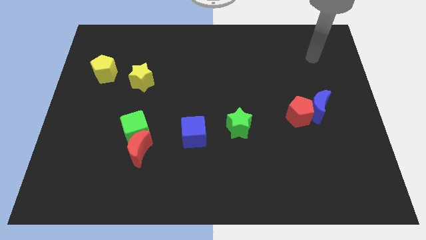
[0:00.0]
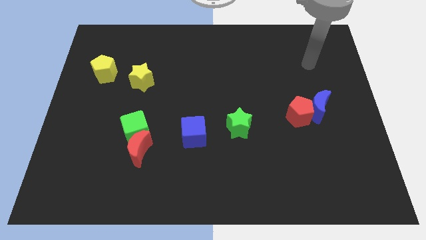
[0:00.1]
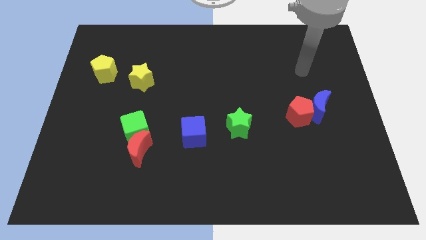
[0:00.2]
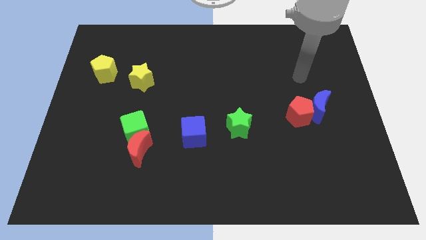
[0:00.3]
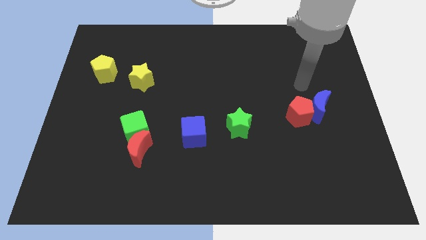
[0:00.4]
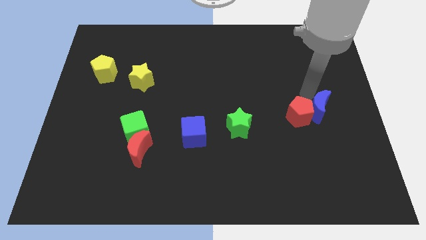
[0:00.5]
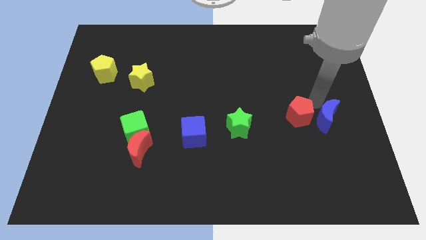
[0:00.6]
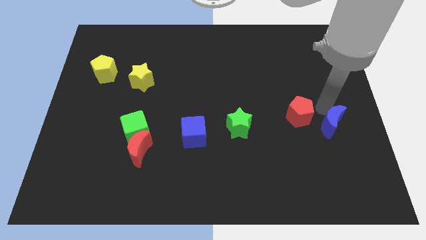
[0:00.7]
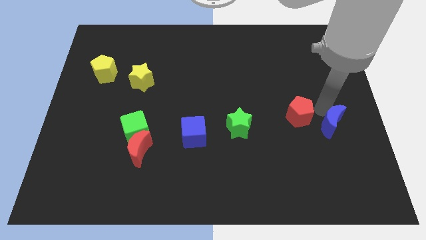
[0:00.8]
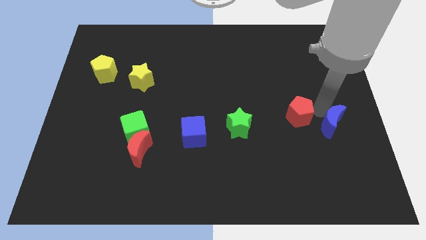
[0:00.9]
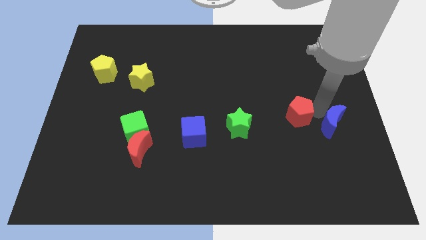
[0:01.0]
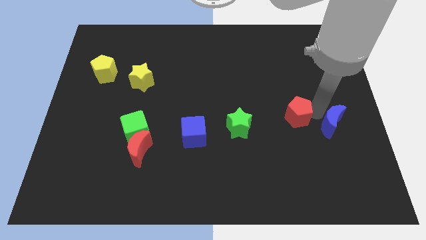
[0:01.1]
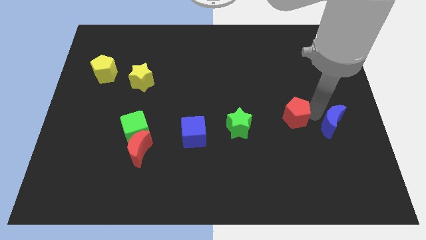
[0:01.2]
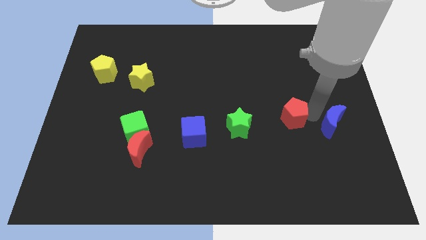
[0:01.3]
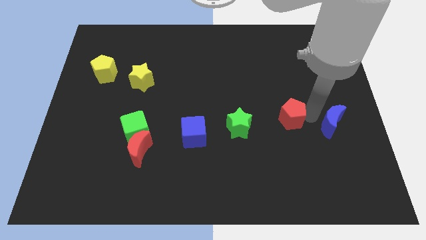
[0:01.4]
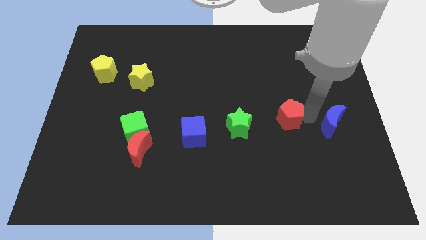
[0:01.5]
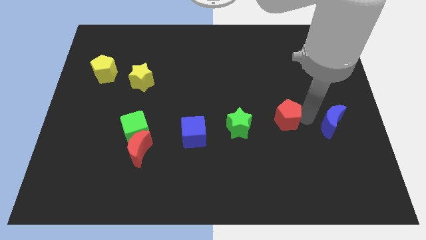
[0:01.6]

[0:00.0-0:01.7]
pull the red pentagon apart from the blue moon

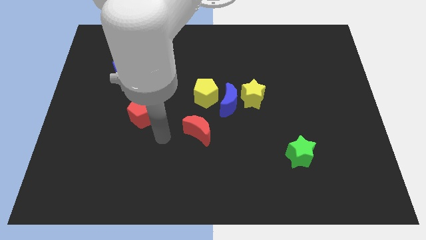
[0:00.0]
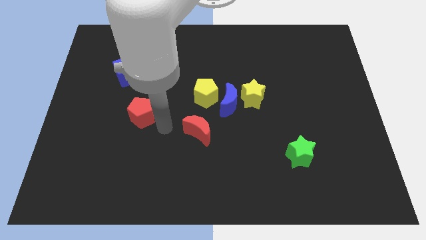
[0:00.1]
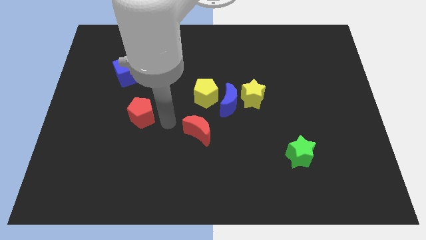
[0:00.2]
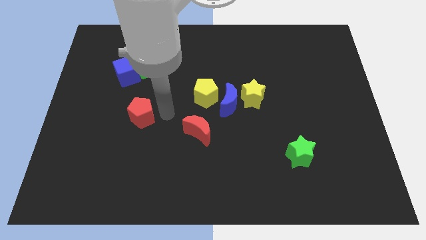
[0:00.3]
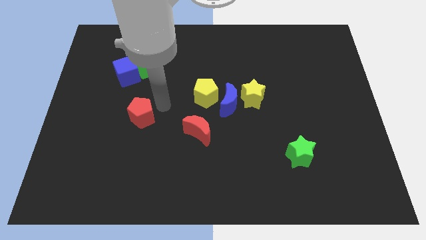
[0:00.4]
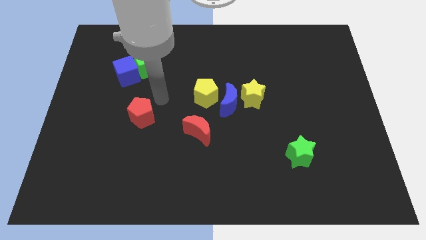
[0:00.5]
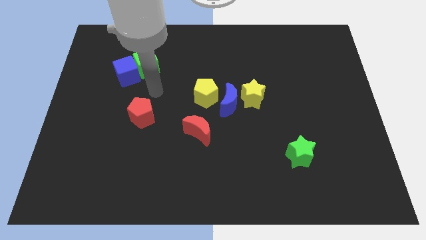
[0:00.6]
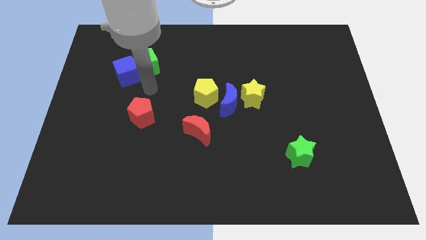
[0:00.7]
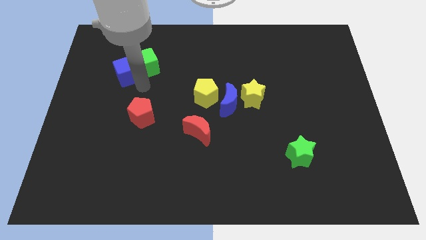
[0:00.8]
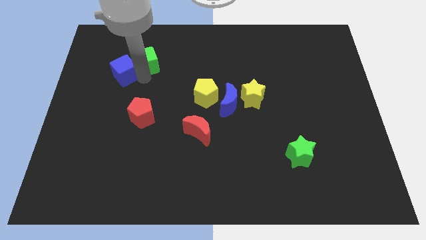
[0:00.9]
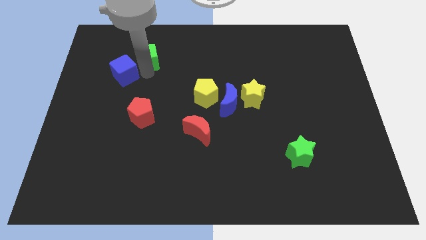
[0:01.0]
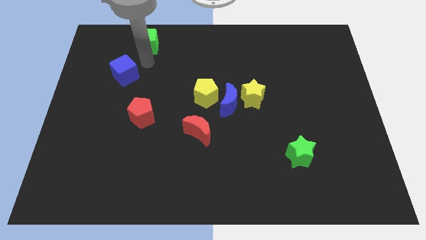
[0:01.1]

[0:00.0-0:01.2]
pull the blue cube apart from the green cube

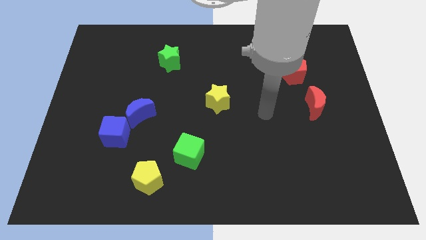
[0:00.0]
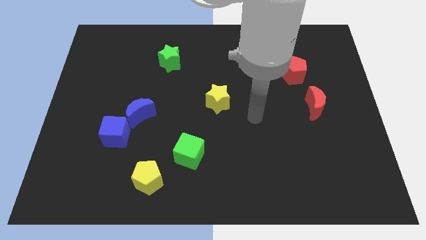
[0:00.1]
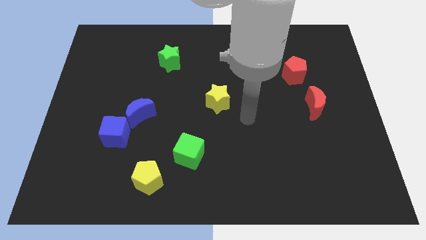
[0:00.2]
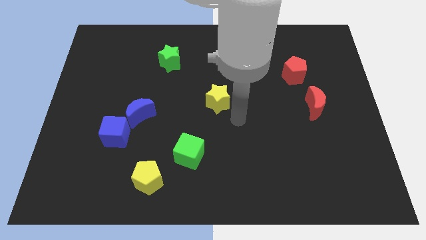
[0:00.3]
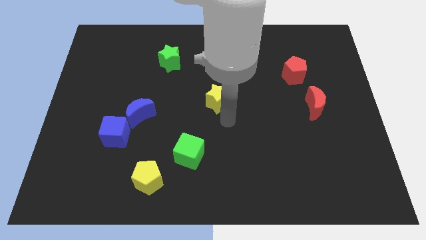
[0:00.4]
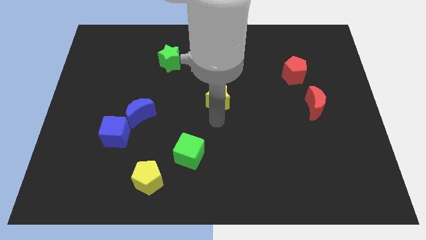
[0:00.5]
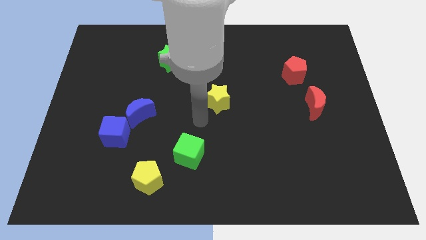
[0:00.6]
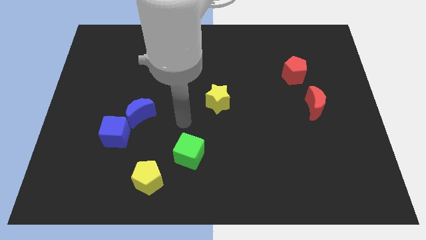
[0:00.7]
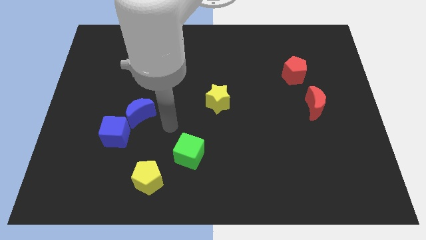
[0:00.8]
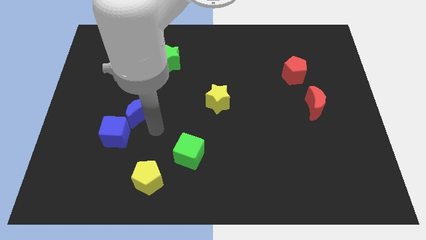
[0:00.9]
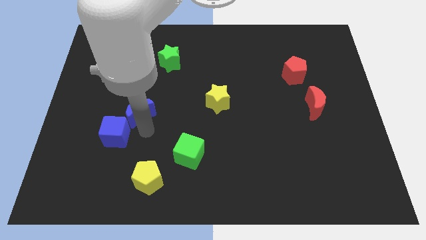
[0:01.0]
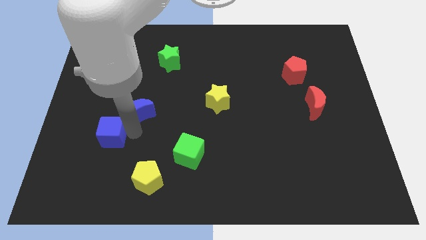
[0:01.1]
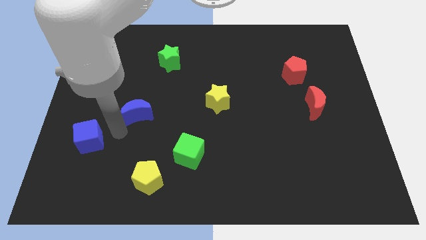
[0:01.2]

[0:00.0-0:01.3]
pull the blue moon apart from the blue cube

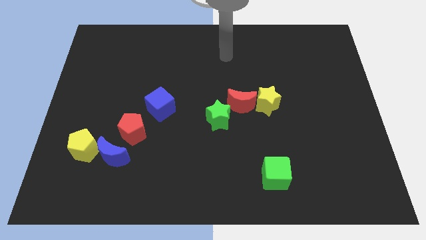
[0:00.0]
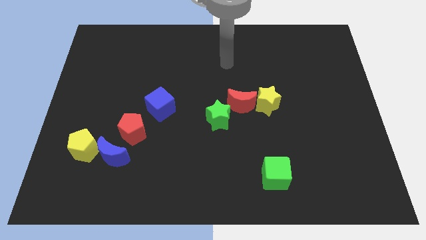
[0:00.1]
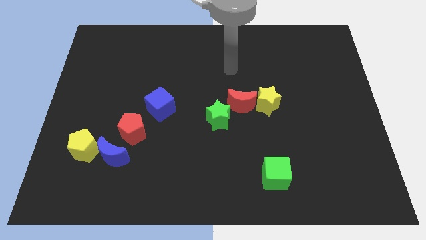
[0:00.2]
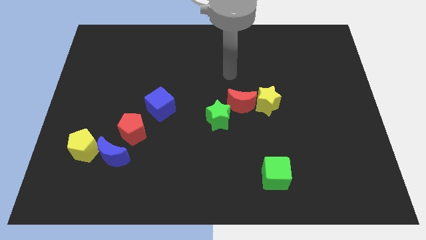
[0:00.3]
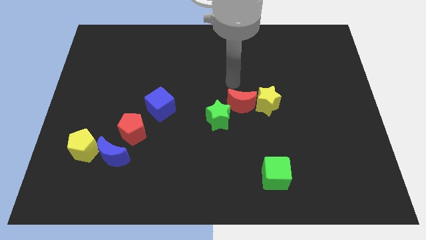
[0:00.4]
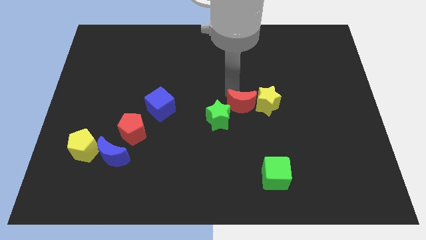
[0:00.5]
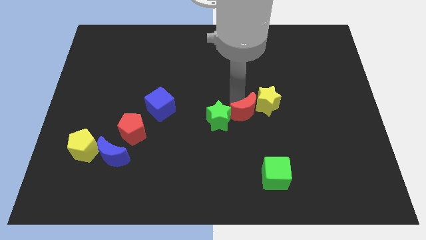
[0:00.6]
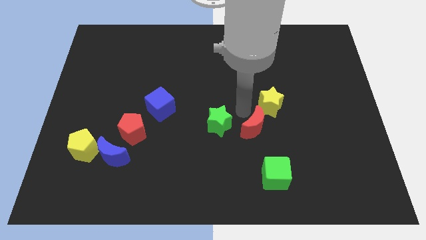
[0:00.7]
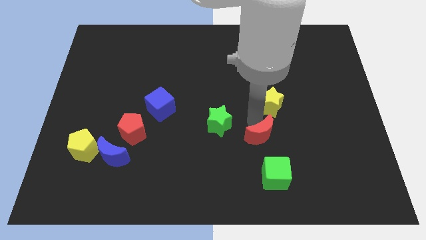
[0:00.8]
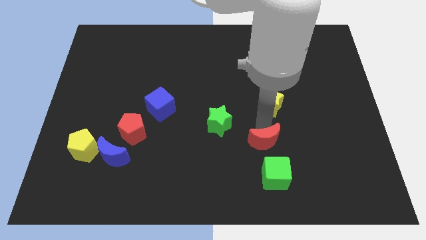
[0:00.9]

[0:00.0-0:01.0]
separate the yellow star from the red moon

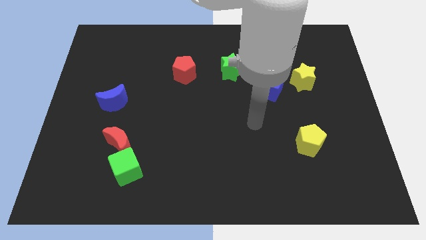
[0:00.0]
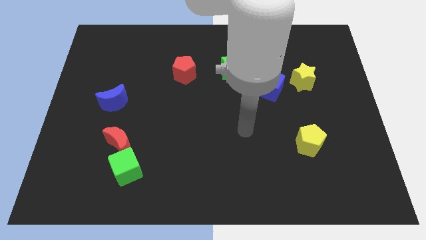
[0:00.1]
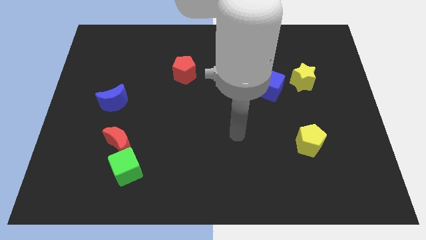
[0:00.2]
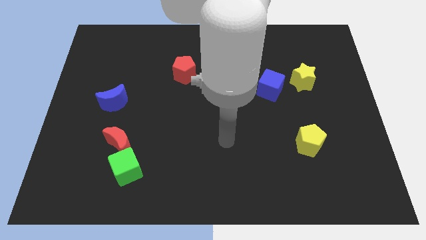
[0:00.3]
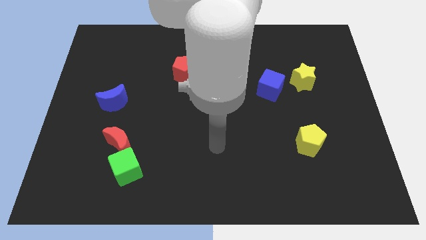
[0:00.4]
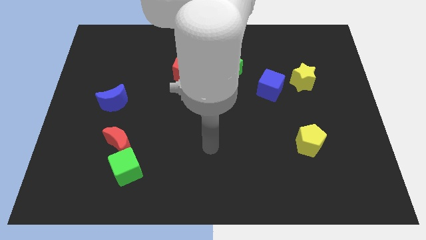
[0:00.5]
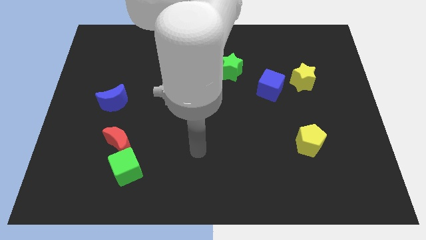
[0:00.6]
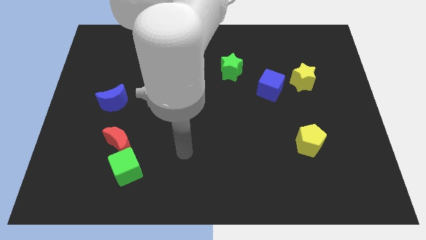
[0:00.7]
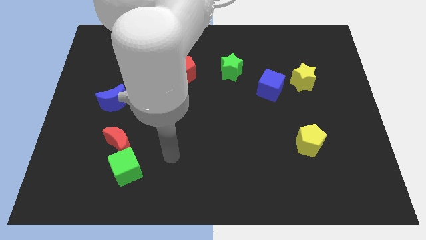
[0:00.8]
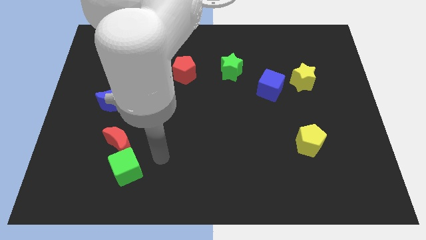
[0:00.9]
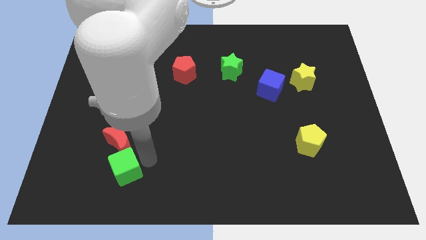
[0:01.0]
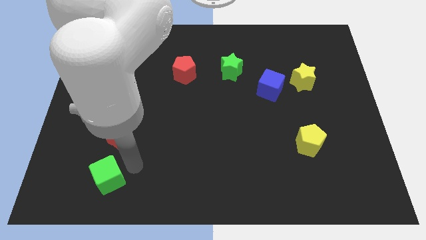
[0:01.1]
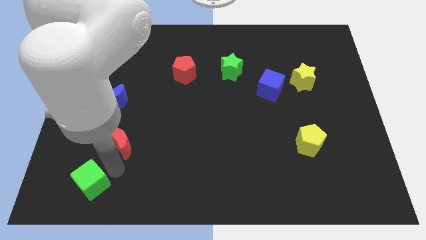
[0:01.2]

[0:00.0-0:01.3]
move the red moon away from the green cube

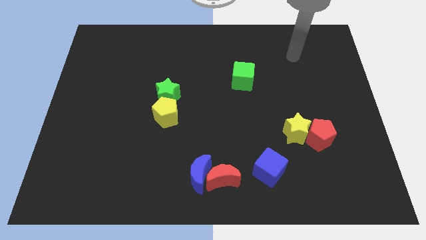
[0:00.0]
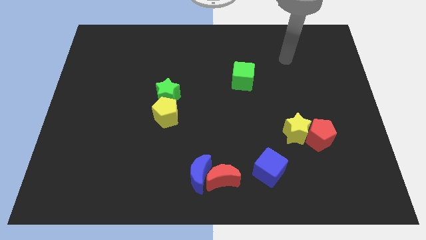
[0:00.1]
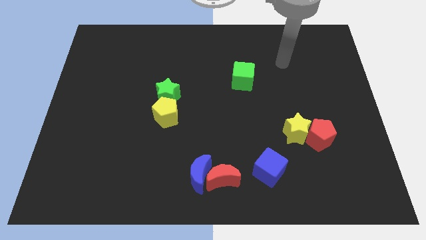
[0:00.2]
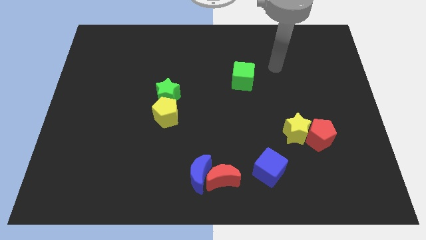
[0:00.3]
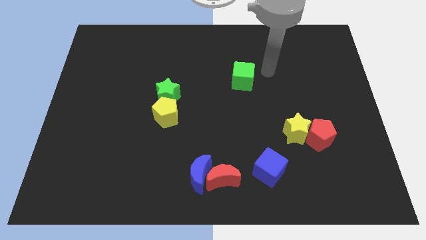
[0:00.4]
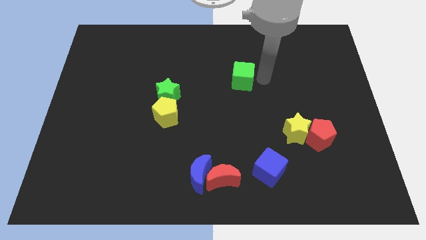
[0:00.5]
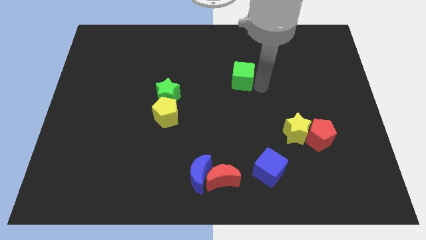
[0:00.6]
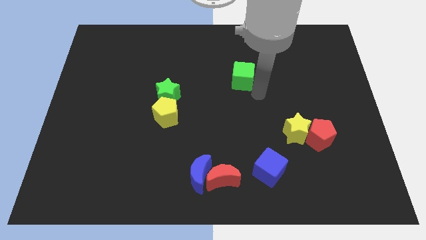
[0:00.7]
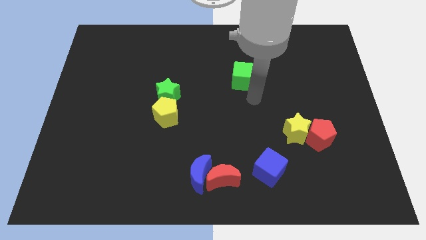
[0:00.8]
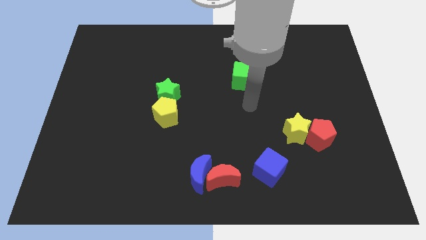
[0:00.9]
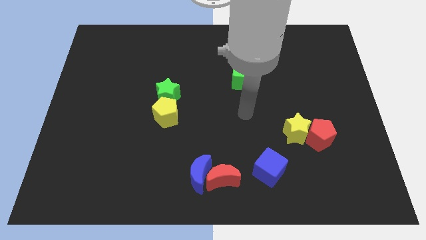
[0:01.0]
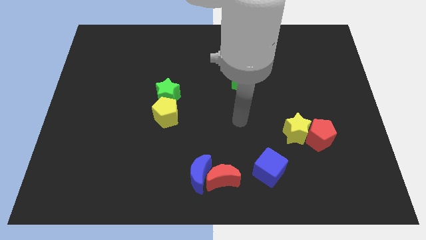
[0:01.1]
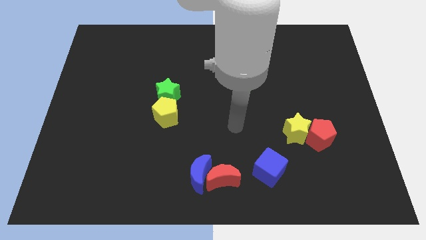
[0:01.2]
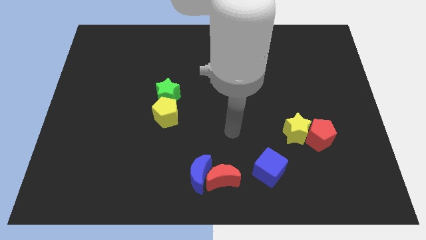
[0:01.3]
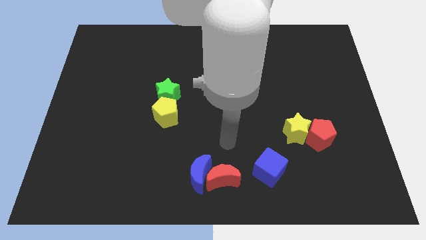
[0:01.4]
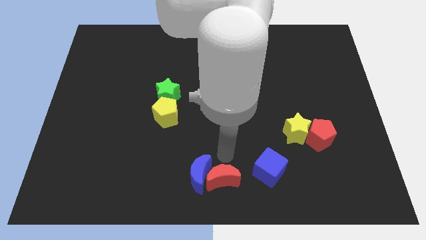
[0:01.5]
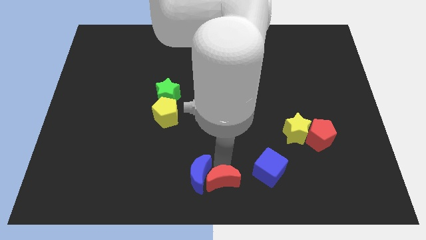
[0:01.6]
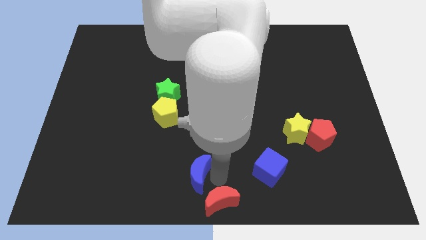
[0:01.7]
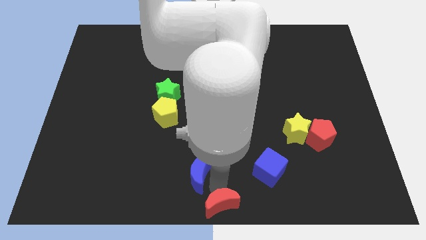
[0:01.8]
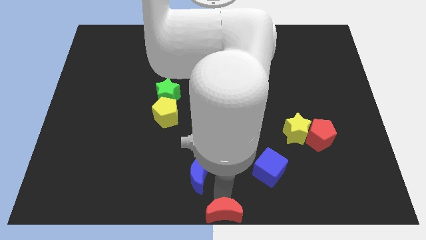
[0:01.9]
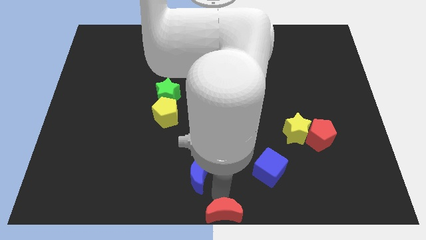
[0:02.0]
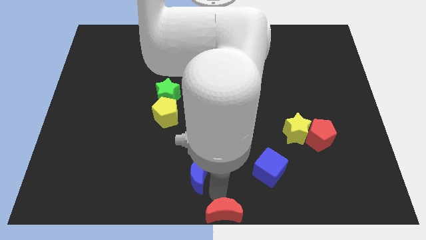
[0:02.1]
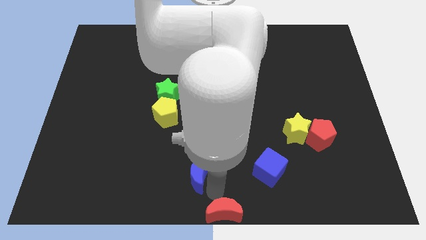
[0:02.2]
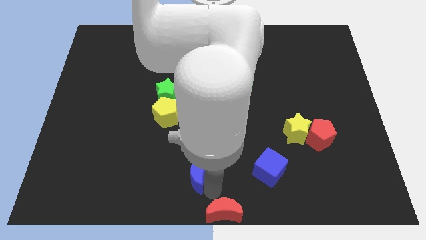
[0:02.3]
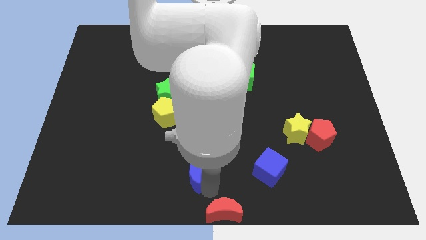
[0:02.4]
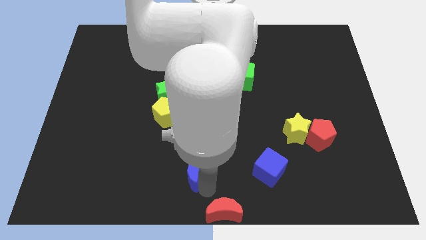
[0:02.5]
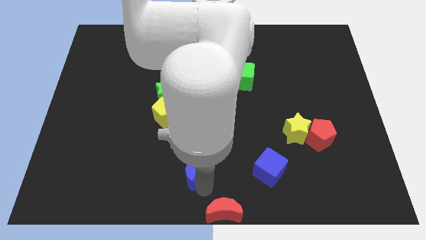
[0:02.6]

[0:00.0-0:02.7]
move the blue moon away from the red moon

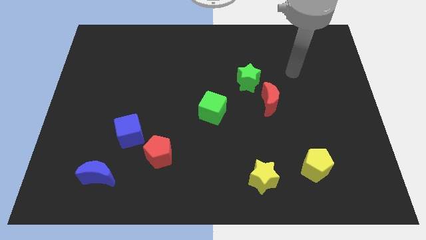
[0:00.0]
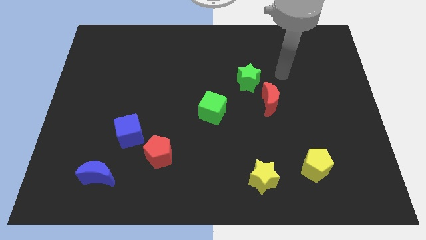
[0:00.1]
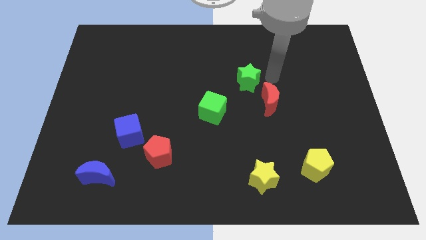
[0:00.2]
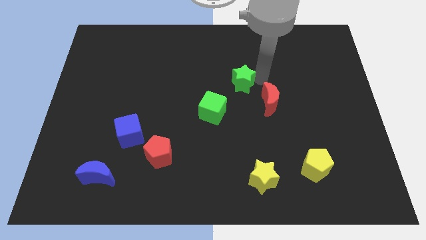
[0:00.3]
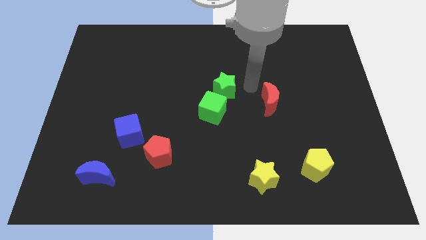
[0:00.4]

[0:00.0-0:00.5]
pull the red moon apart from the green star
